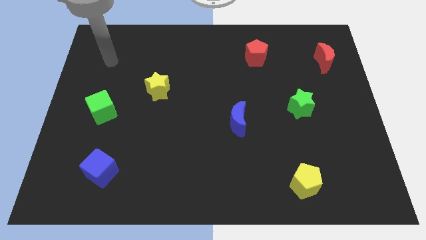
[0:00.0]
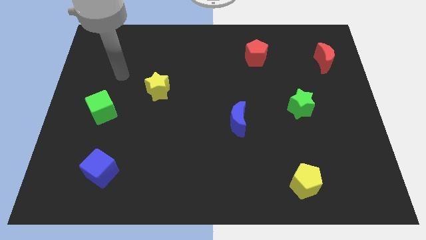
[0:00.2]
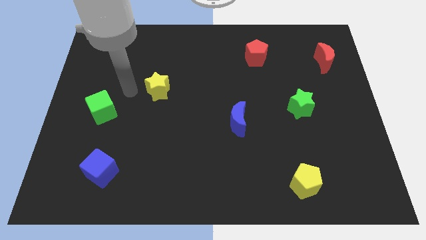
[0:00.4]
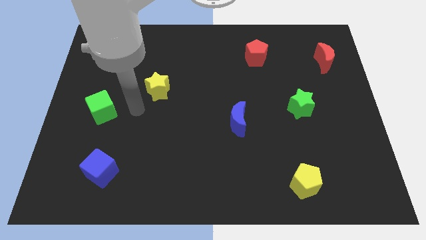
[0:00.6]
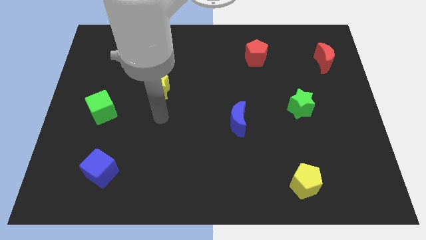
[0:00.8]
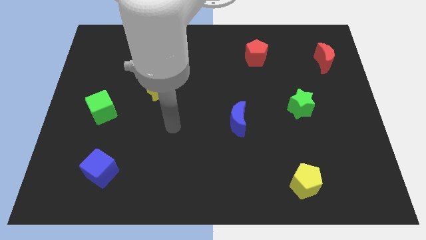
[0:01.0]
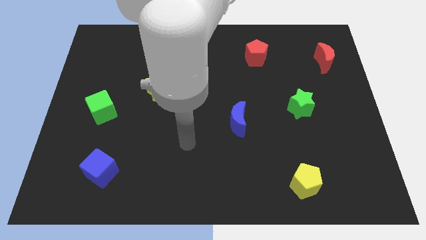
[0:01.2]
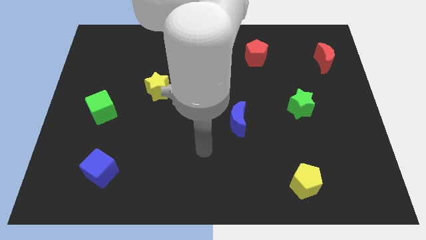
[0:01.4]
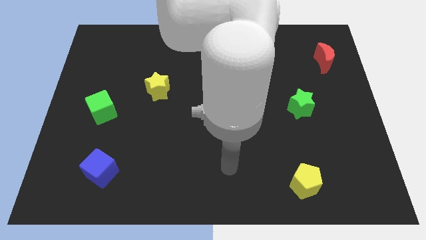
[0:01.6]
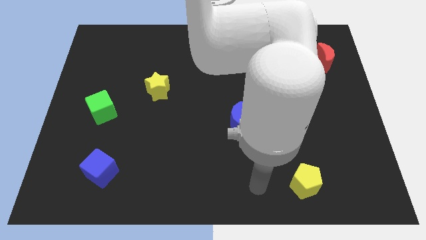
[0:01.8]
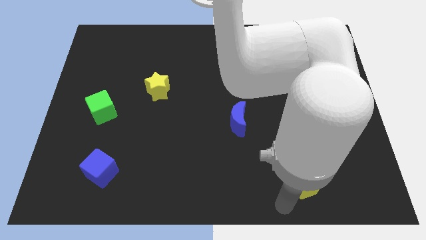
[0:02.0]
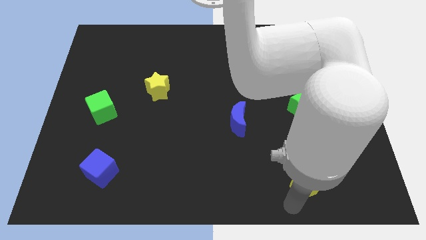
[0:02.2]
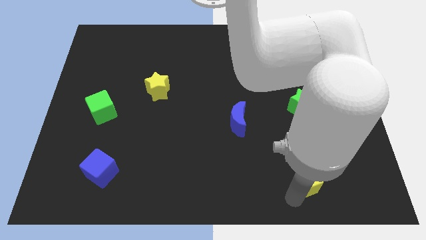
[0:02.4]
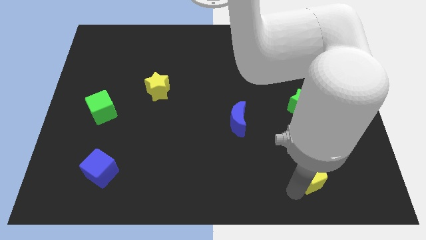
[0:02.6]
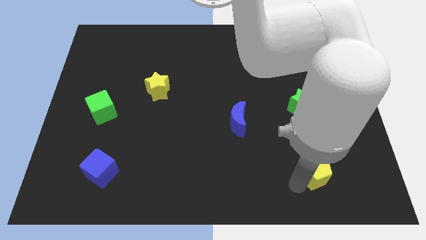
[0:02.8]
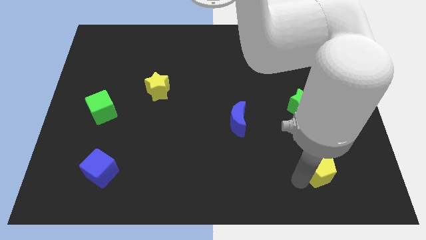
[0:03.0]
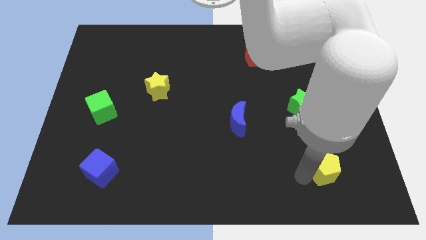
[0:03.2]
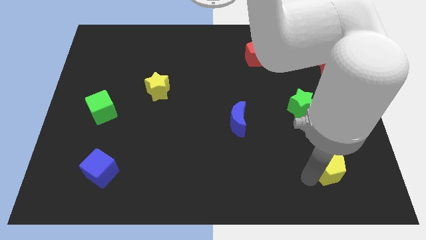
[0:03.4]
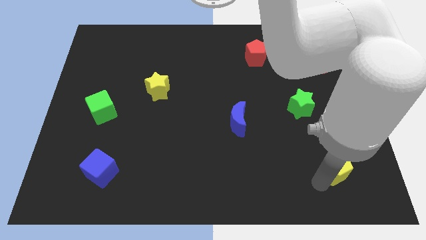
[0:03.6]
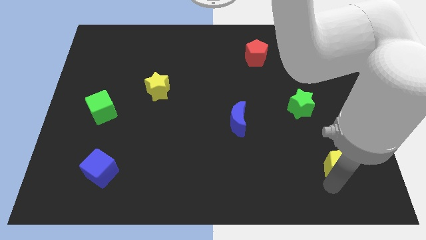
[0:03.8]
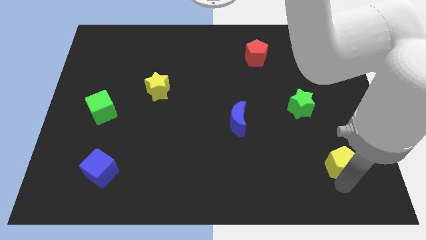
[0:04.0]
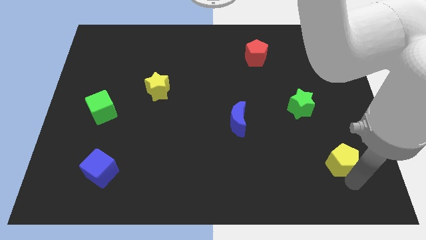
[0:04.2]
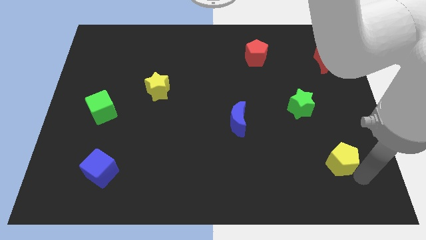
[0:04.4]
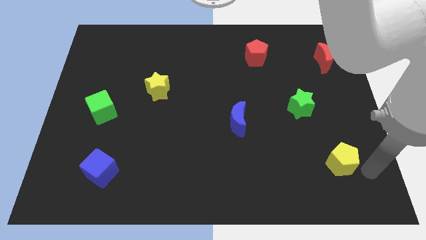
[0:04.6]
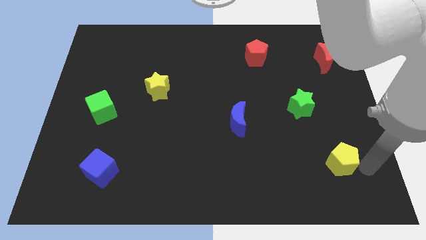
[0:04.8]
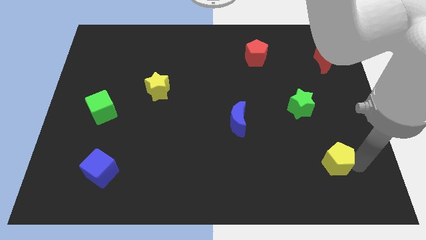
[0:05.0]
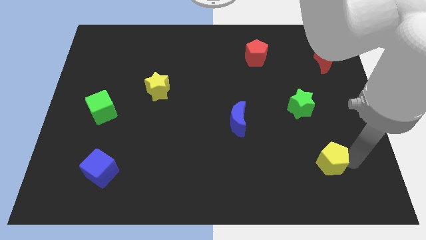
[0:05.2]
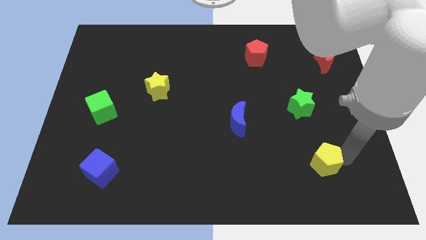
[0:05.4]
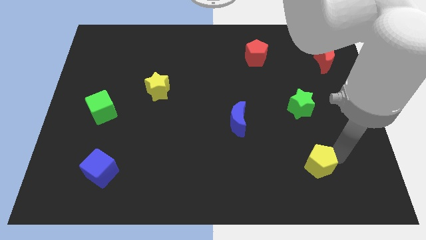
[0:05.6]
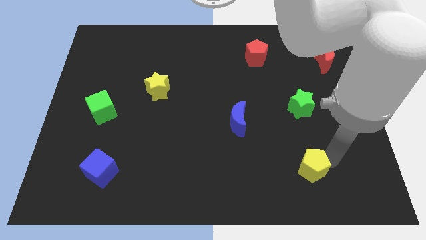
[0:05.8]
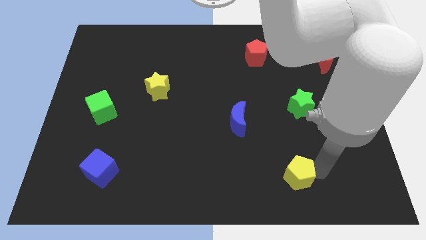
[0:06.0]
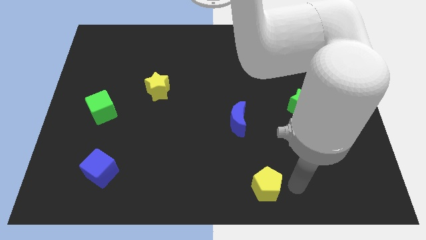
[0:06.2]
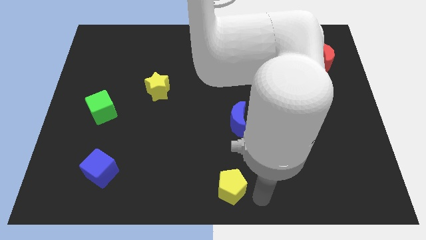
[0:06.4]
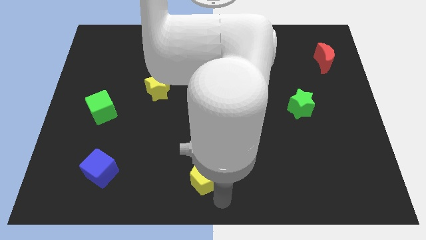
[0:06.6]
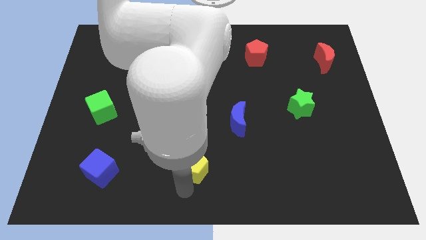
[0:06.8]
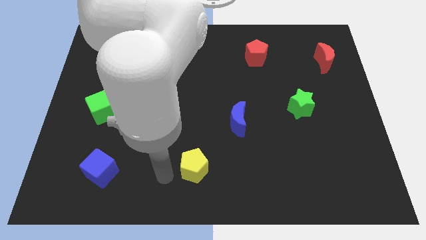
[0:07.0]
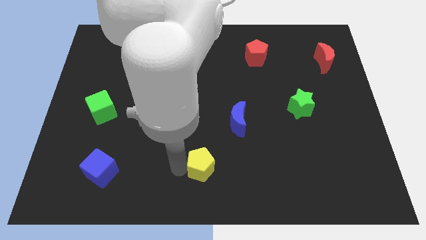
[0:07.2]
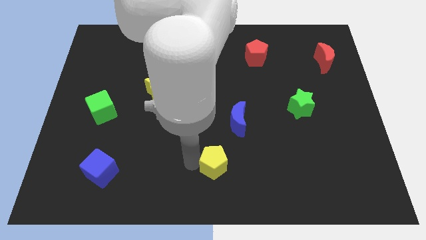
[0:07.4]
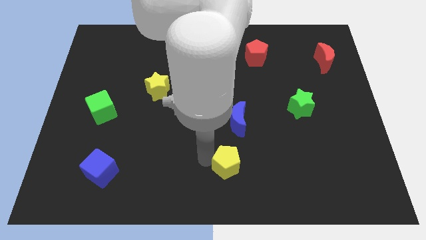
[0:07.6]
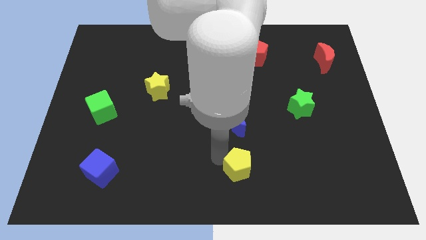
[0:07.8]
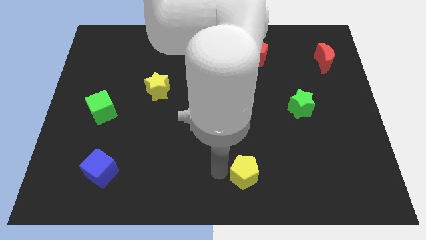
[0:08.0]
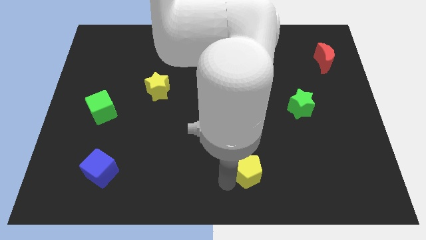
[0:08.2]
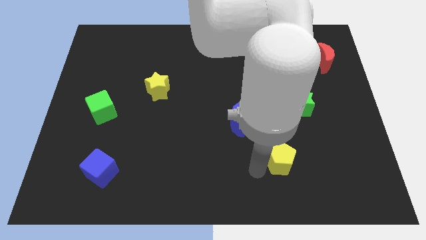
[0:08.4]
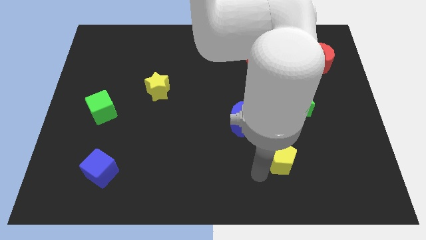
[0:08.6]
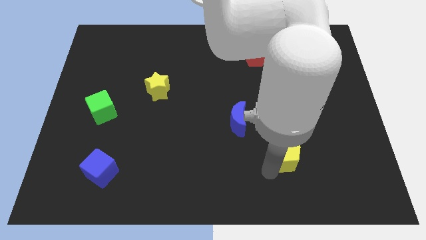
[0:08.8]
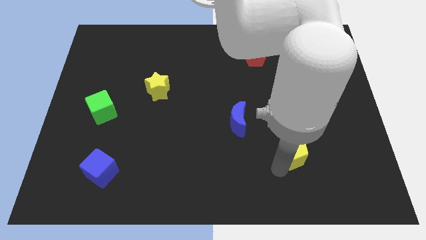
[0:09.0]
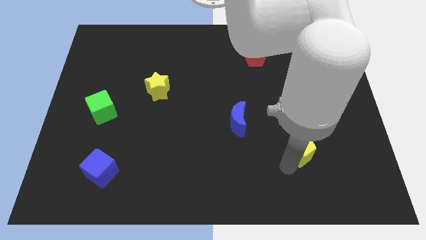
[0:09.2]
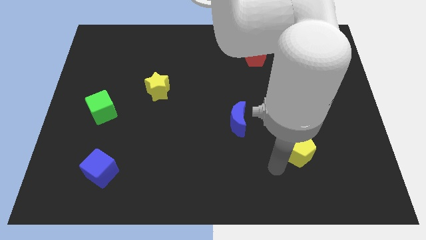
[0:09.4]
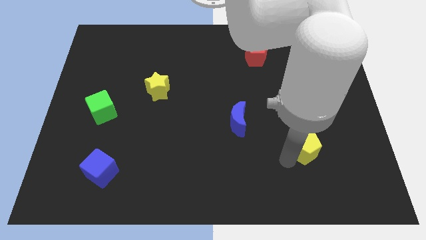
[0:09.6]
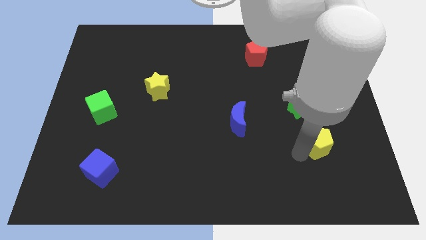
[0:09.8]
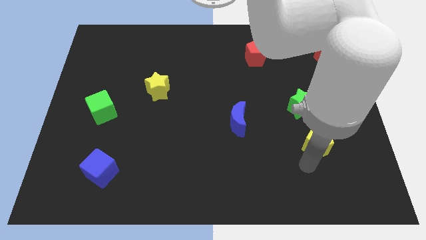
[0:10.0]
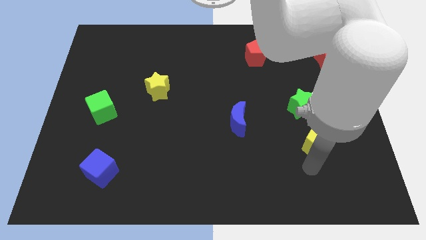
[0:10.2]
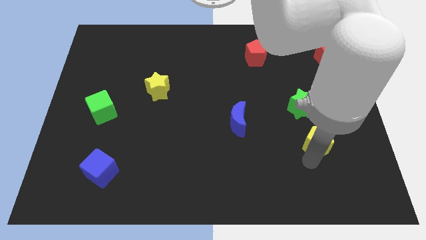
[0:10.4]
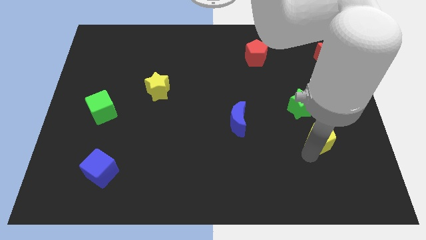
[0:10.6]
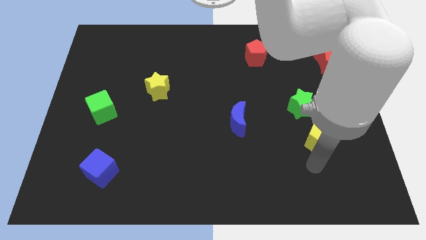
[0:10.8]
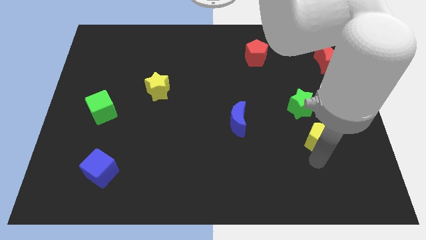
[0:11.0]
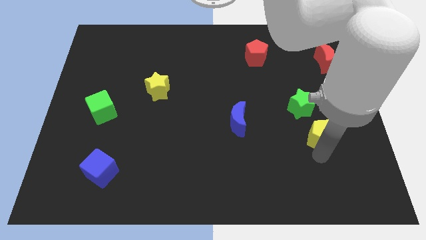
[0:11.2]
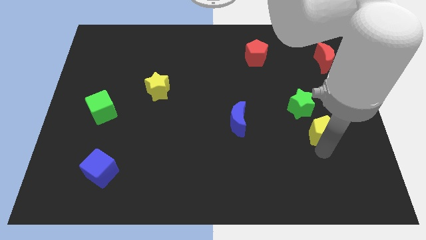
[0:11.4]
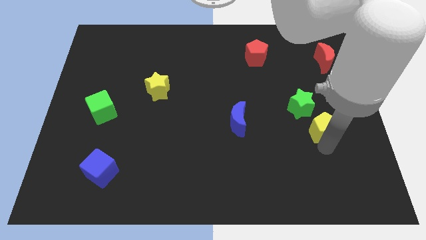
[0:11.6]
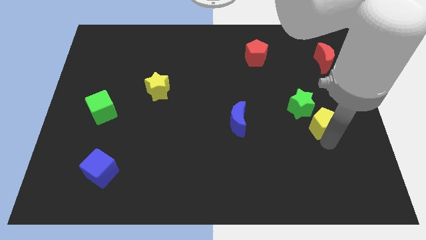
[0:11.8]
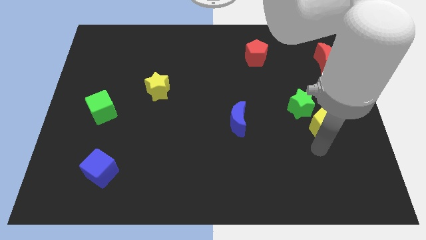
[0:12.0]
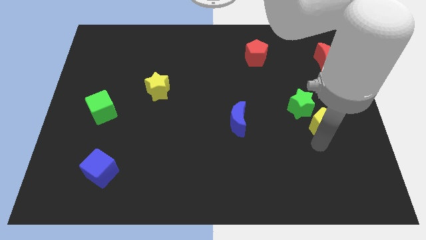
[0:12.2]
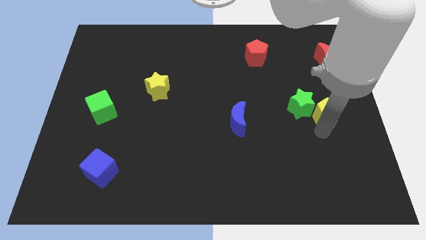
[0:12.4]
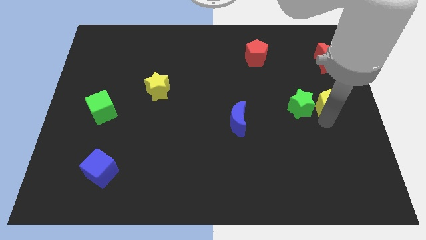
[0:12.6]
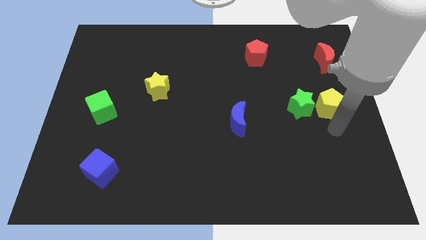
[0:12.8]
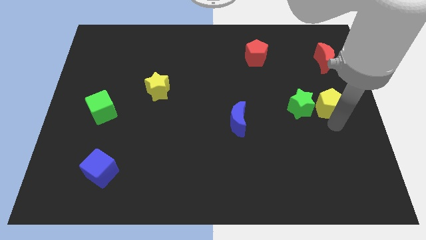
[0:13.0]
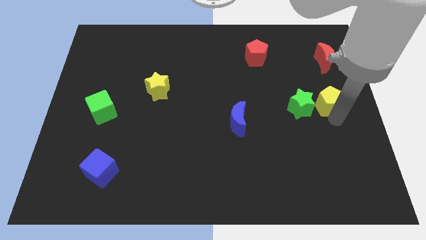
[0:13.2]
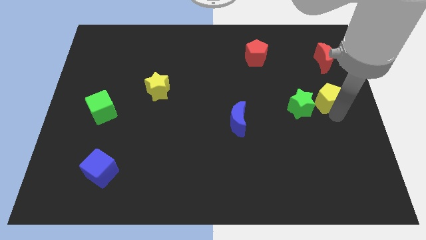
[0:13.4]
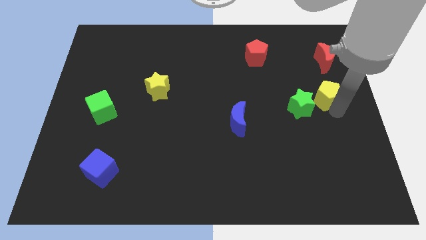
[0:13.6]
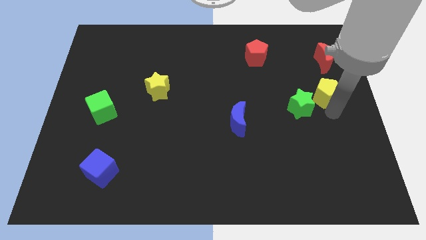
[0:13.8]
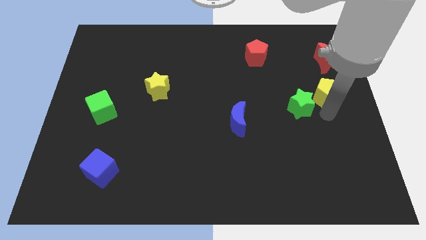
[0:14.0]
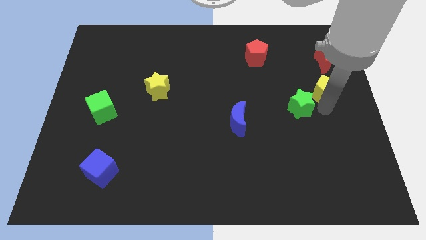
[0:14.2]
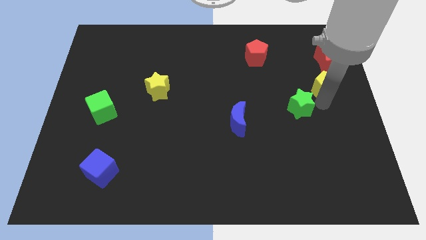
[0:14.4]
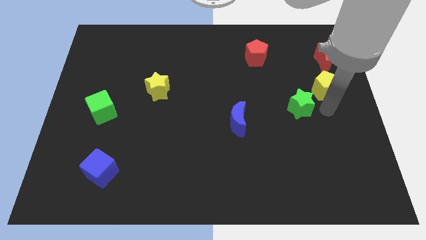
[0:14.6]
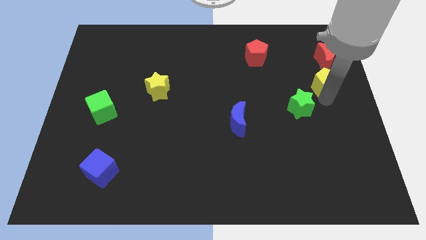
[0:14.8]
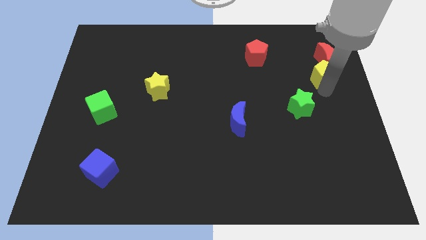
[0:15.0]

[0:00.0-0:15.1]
slide the yellow pentagon to the red moon
